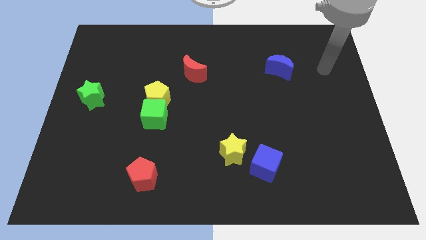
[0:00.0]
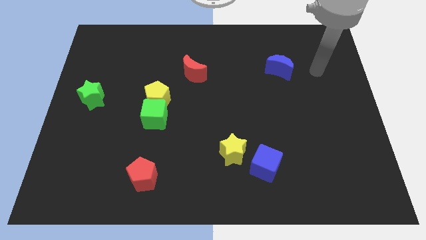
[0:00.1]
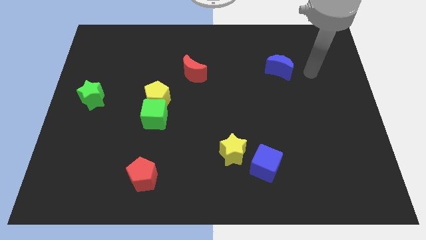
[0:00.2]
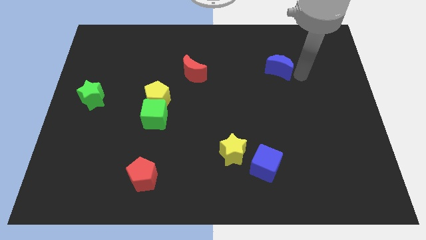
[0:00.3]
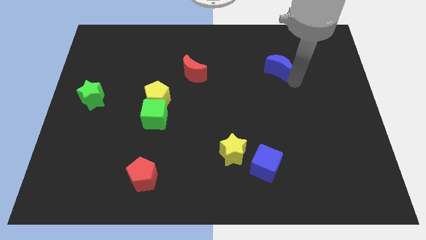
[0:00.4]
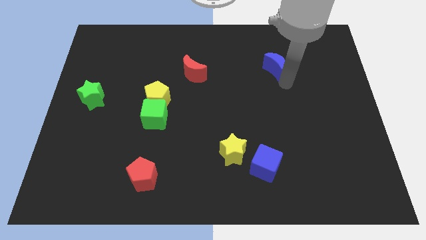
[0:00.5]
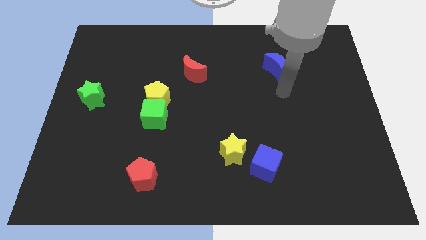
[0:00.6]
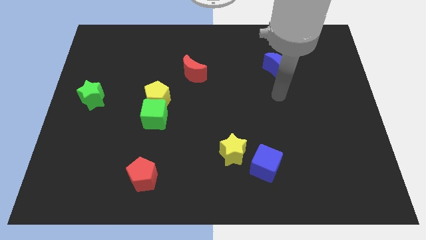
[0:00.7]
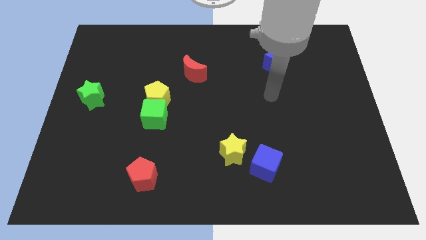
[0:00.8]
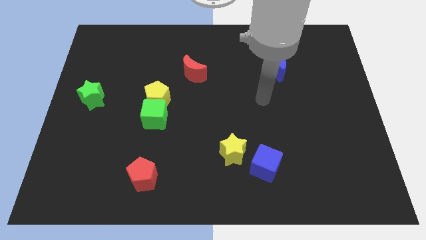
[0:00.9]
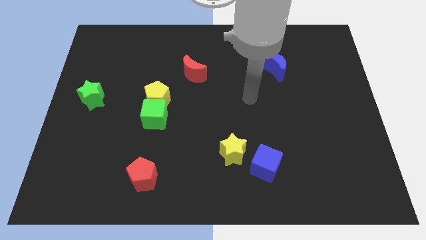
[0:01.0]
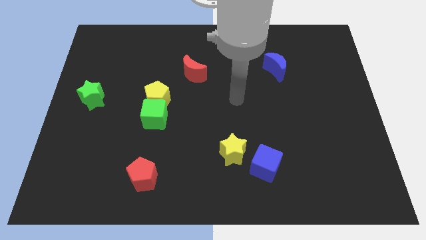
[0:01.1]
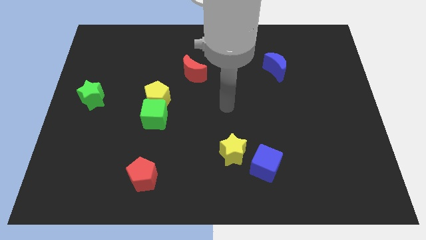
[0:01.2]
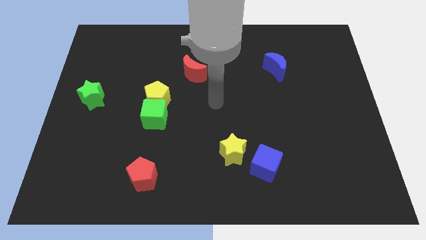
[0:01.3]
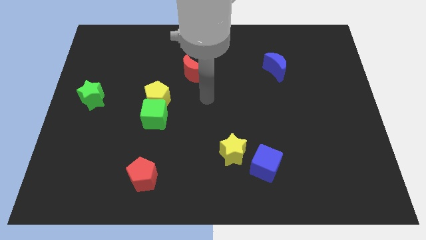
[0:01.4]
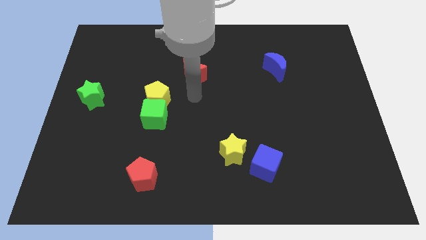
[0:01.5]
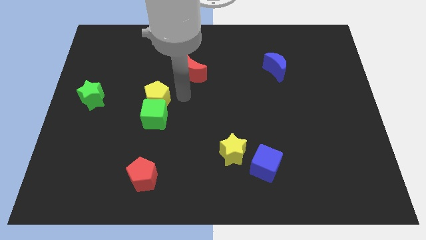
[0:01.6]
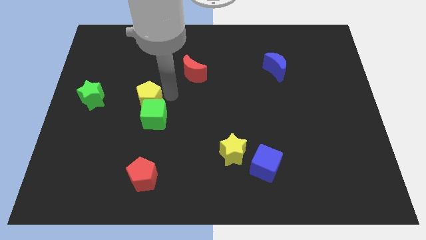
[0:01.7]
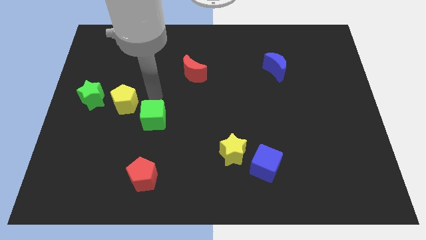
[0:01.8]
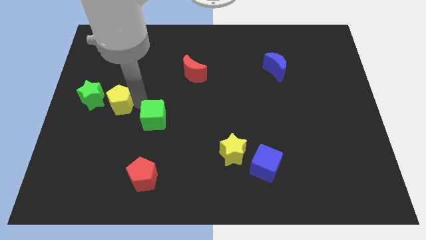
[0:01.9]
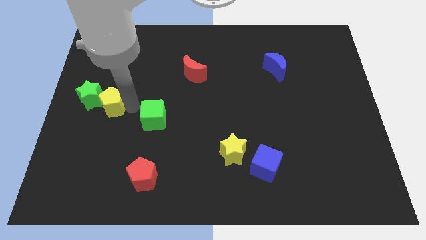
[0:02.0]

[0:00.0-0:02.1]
separate the green cube from the yellow pentagon

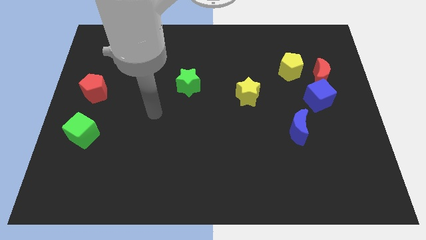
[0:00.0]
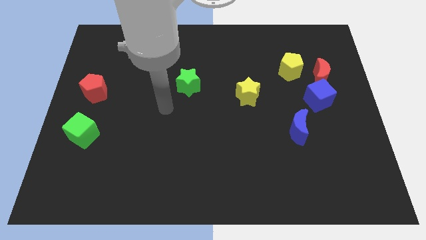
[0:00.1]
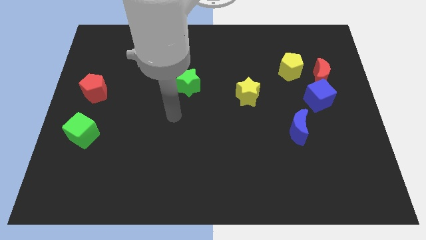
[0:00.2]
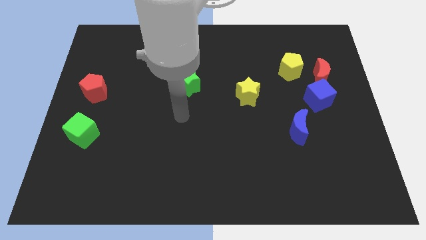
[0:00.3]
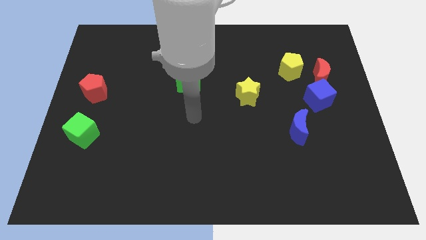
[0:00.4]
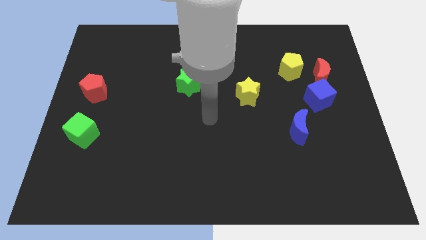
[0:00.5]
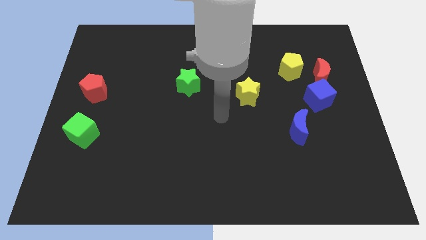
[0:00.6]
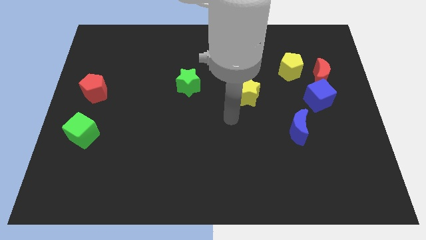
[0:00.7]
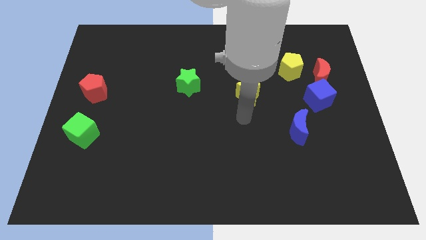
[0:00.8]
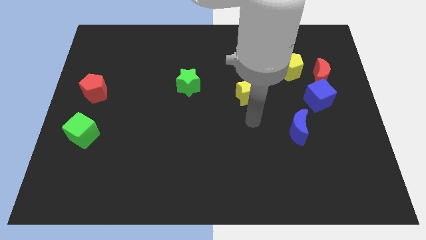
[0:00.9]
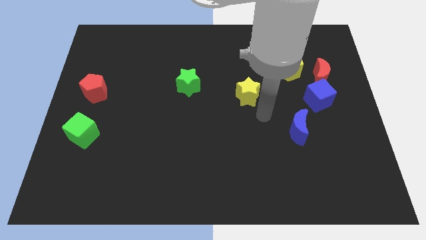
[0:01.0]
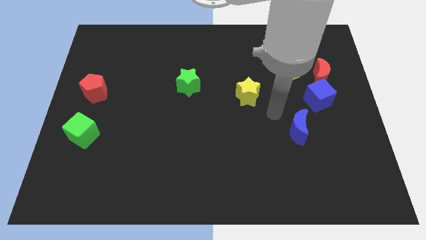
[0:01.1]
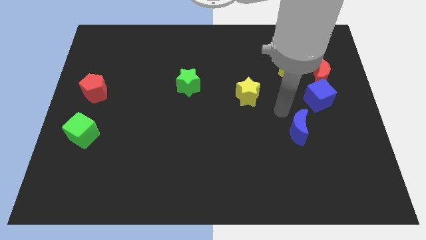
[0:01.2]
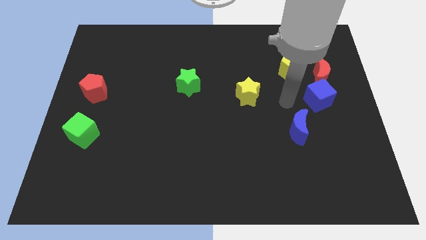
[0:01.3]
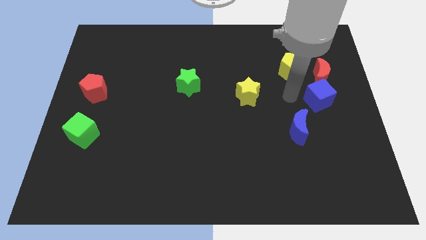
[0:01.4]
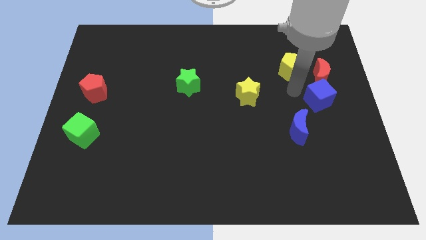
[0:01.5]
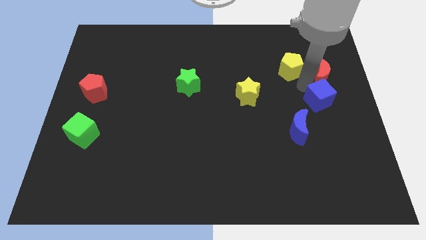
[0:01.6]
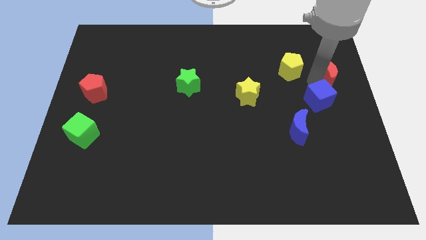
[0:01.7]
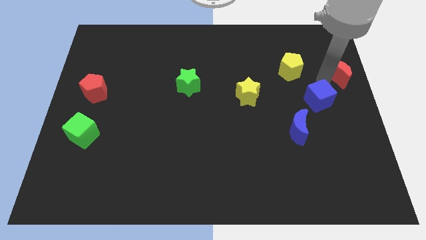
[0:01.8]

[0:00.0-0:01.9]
move the blue cube away from the red moon

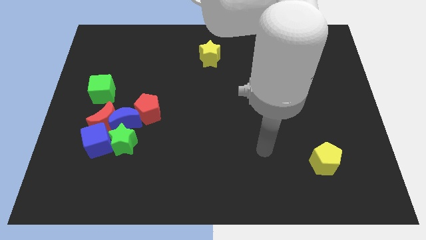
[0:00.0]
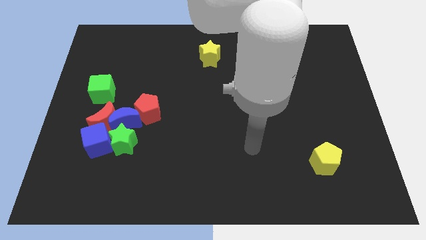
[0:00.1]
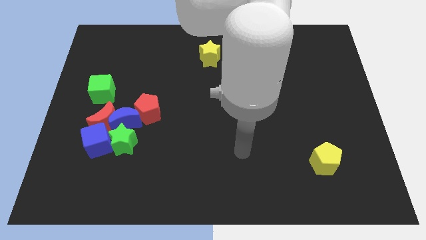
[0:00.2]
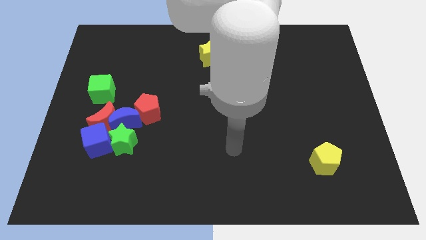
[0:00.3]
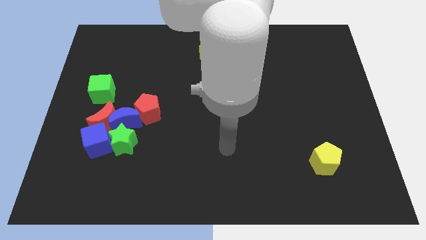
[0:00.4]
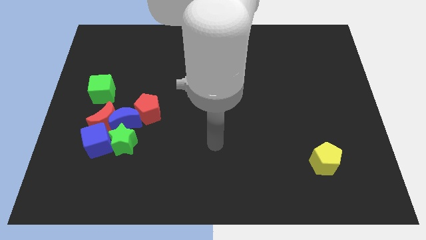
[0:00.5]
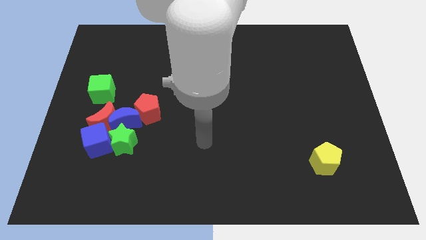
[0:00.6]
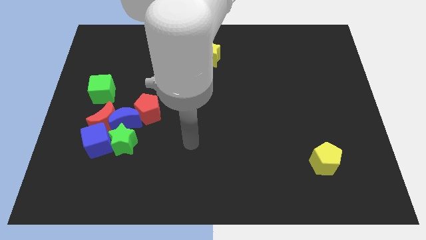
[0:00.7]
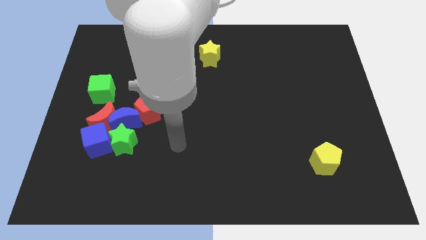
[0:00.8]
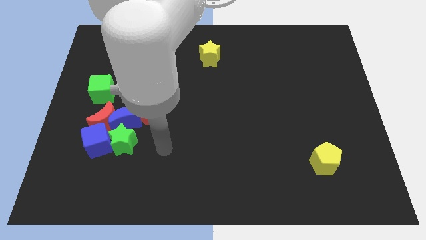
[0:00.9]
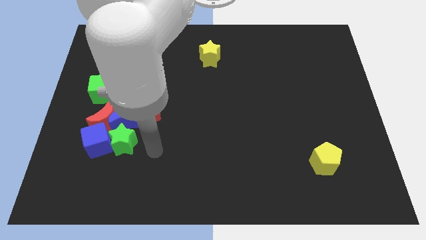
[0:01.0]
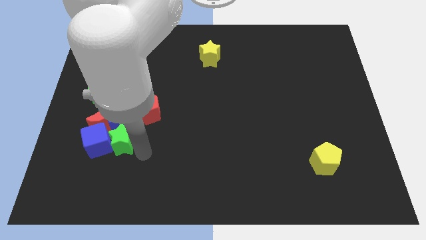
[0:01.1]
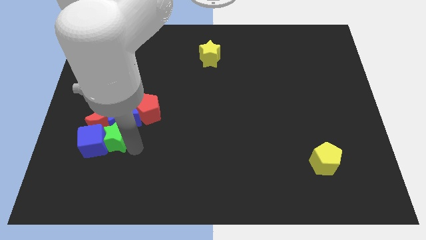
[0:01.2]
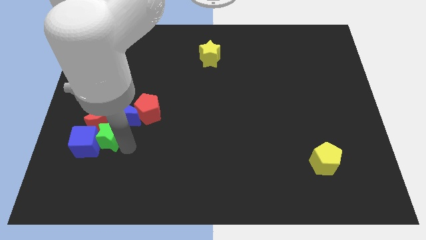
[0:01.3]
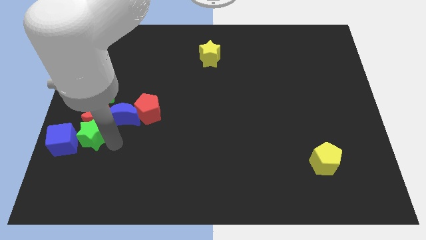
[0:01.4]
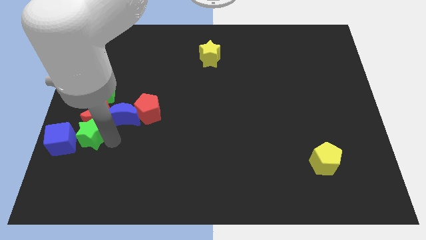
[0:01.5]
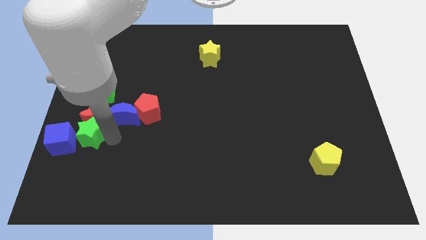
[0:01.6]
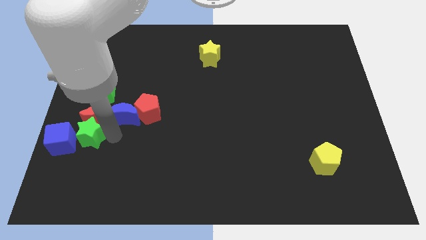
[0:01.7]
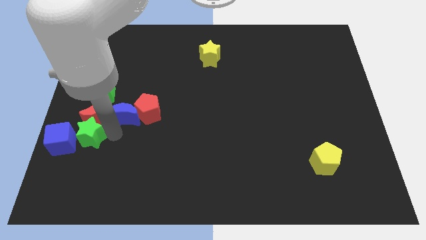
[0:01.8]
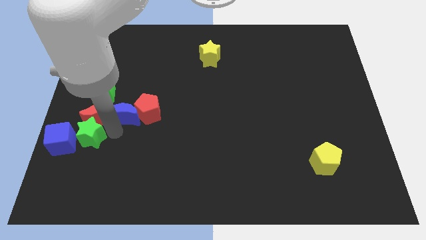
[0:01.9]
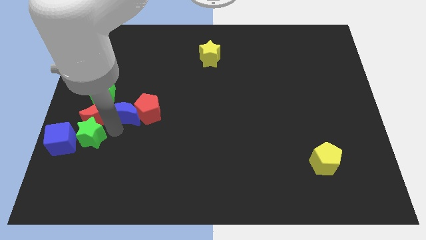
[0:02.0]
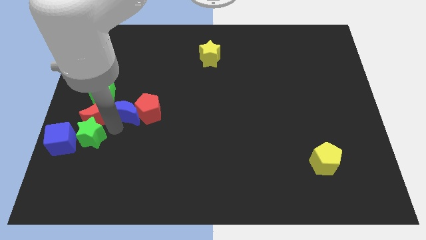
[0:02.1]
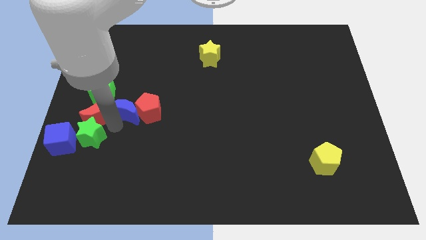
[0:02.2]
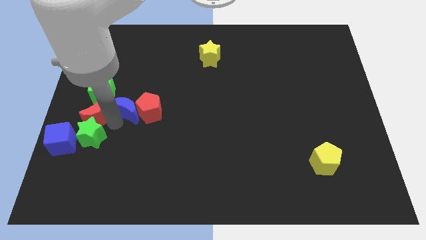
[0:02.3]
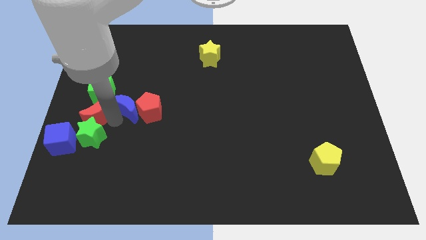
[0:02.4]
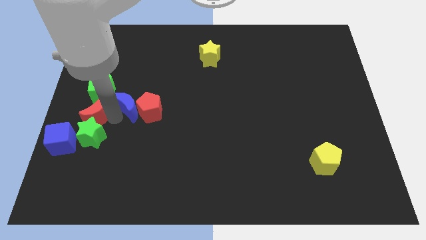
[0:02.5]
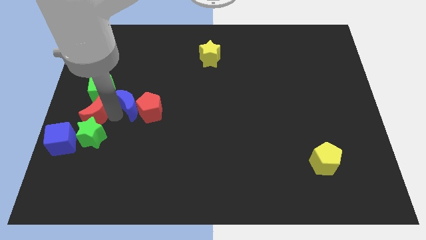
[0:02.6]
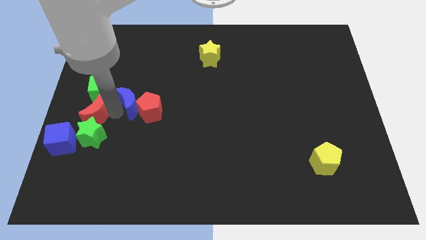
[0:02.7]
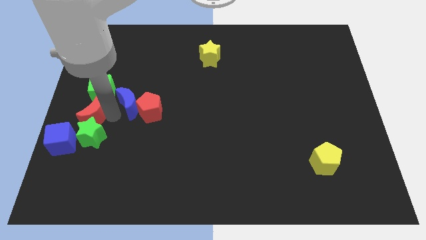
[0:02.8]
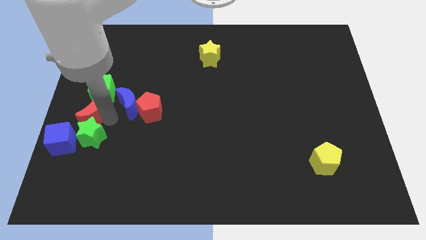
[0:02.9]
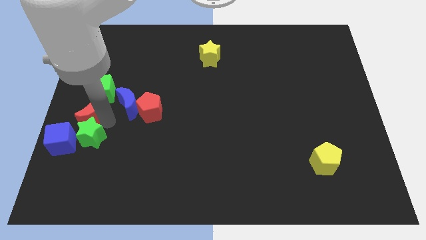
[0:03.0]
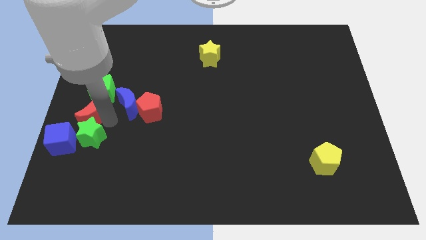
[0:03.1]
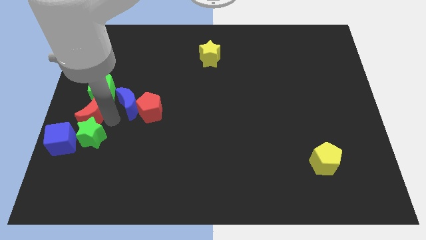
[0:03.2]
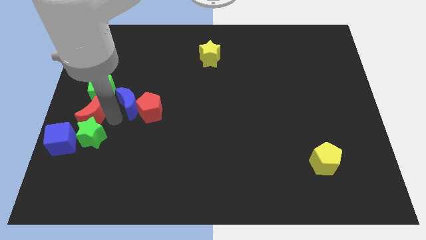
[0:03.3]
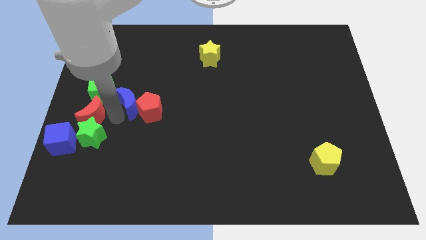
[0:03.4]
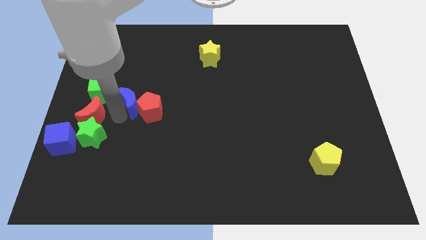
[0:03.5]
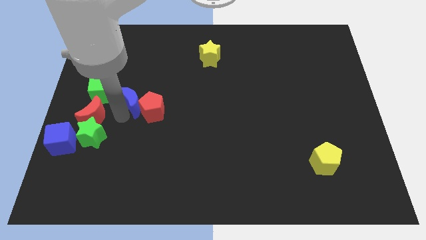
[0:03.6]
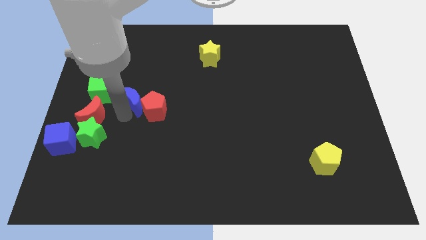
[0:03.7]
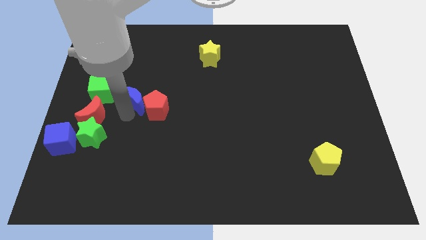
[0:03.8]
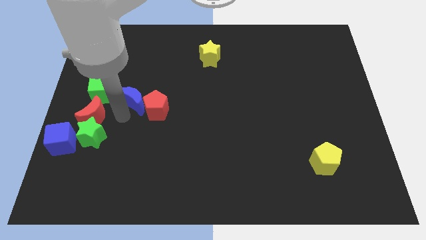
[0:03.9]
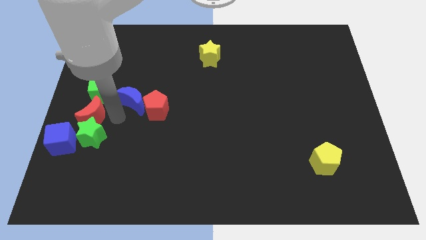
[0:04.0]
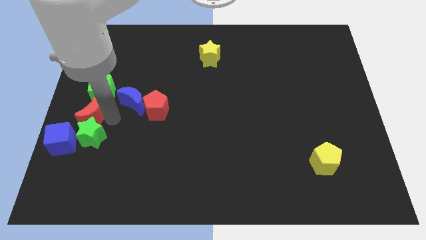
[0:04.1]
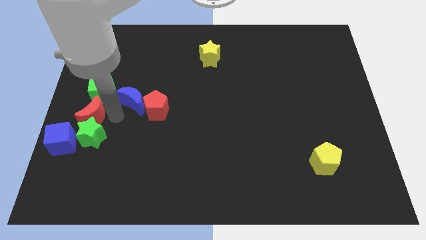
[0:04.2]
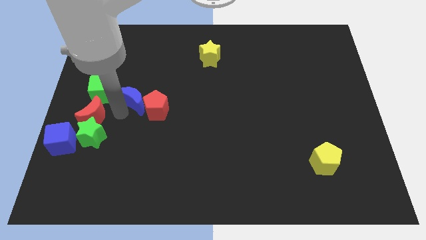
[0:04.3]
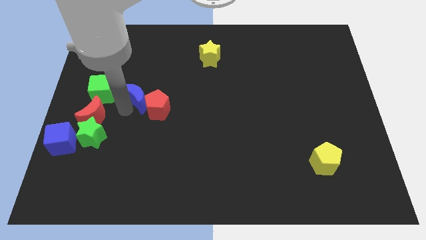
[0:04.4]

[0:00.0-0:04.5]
move the blue moon away from the clump

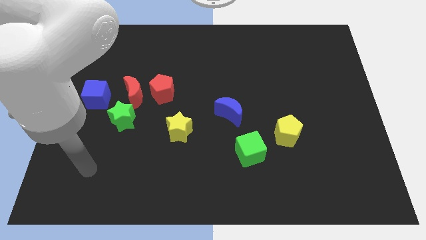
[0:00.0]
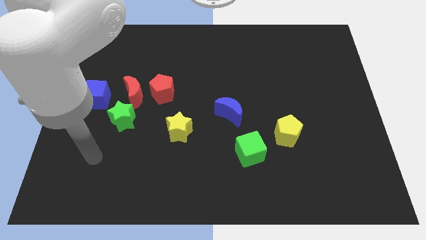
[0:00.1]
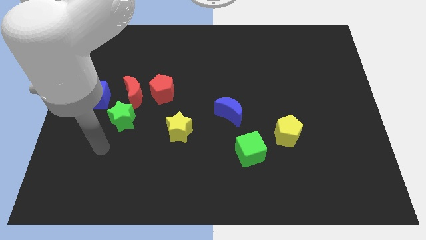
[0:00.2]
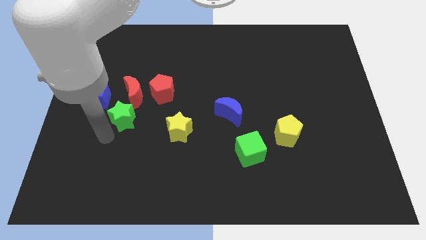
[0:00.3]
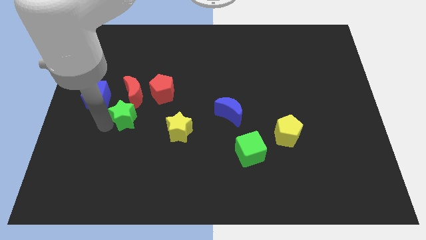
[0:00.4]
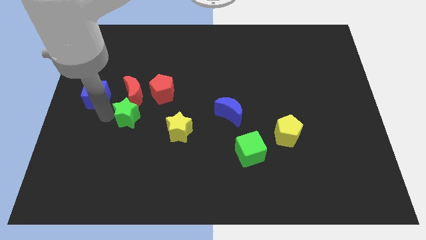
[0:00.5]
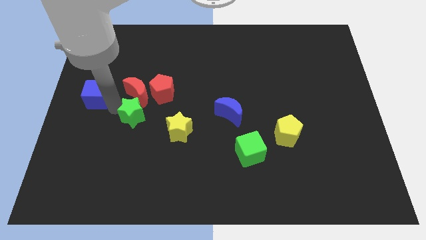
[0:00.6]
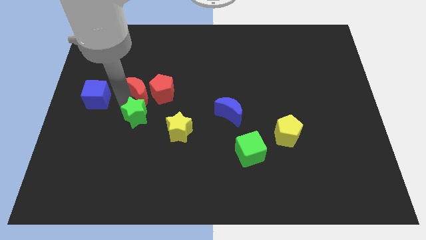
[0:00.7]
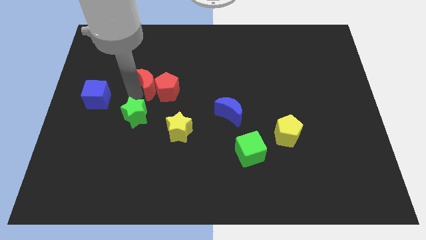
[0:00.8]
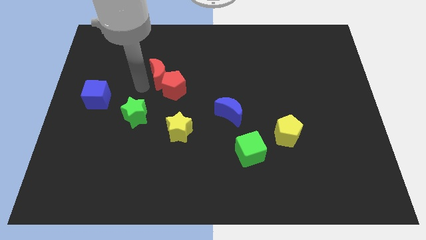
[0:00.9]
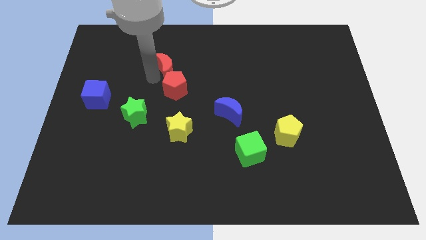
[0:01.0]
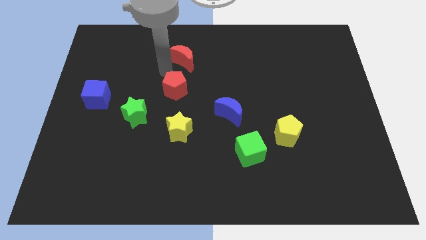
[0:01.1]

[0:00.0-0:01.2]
pull the red pentagon apart from the red moon
